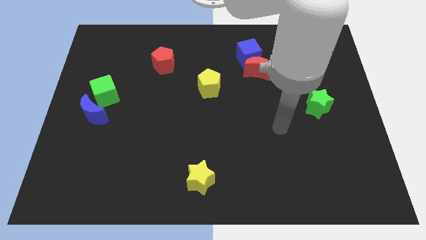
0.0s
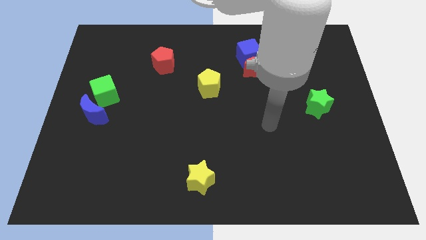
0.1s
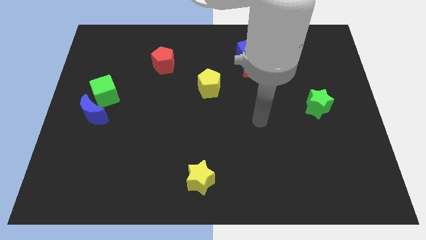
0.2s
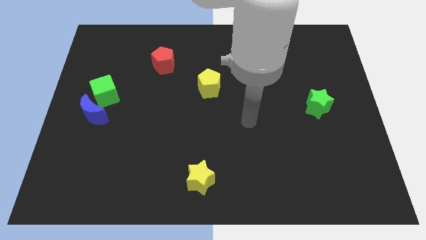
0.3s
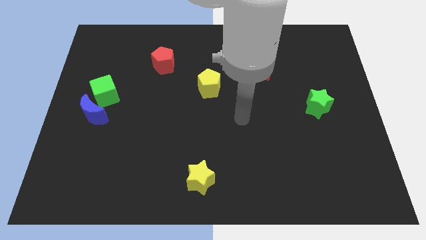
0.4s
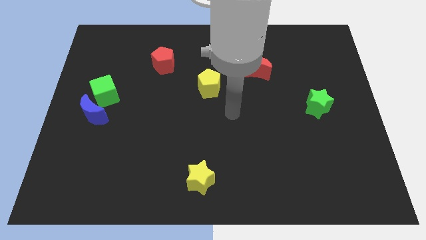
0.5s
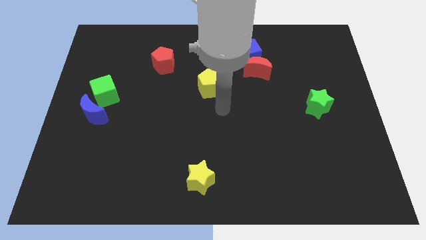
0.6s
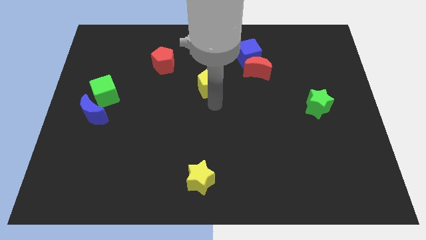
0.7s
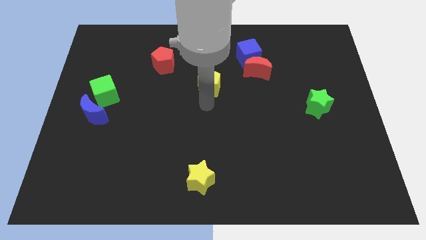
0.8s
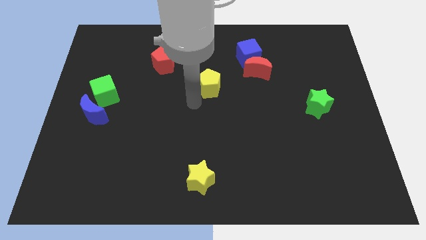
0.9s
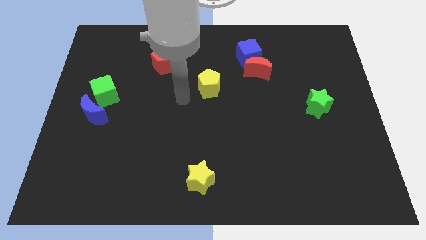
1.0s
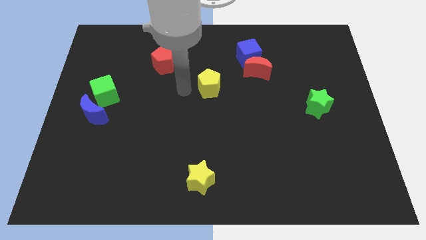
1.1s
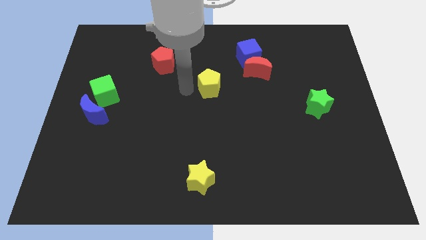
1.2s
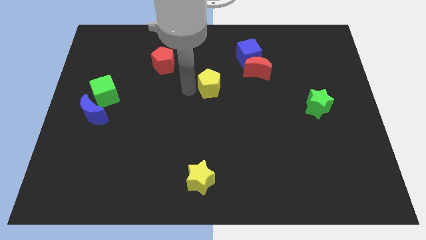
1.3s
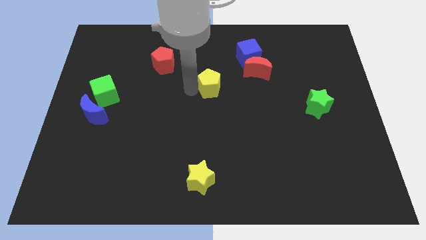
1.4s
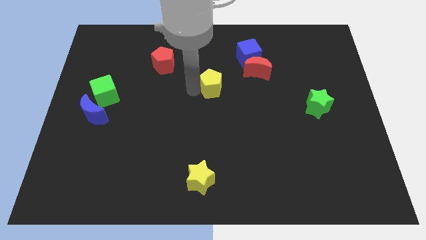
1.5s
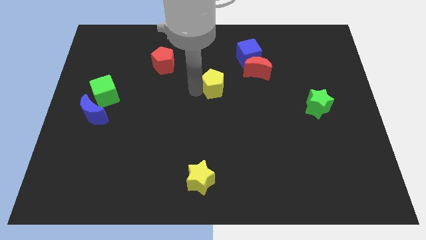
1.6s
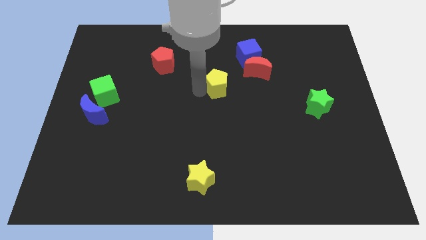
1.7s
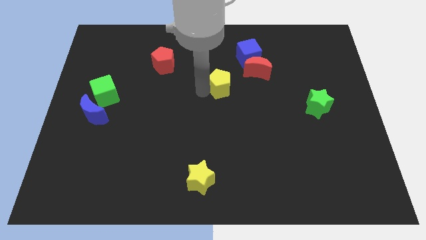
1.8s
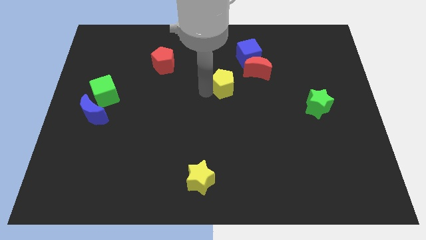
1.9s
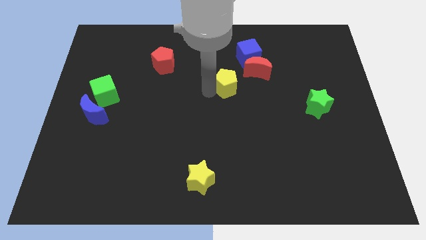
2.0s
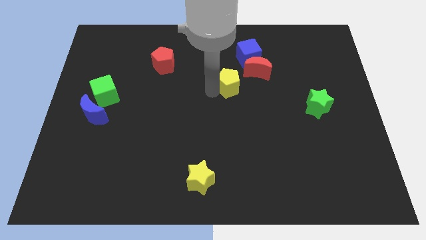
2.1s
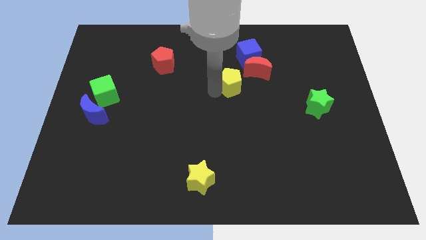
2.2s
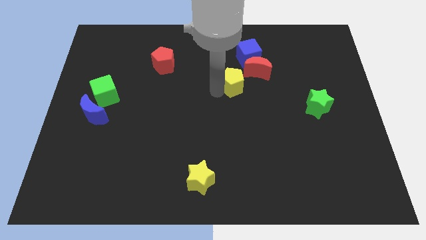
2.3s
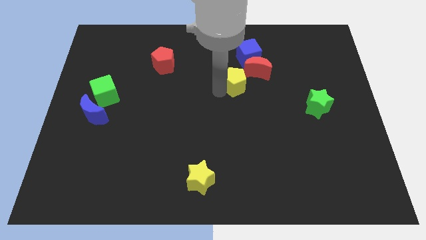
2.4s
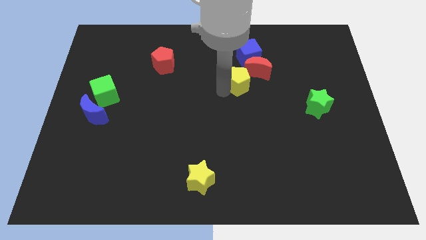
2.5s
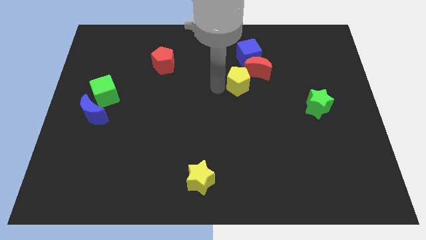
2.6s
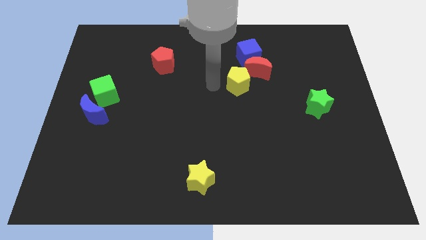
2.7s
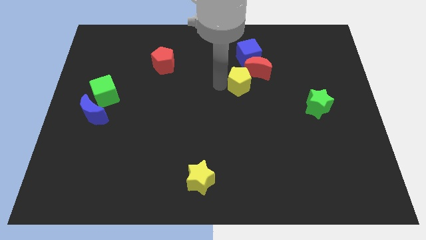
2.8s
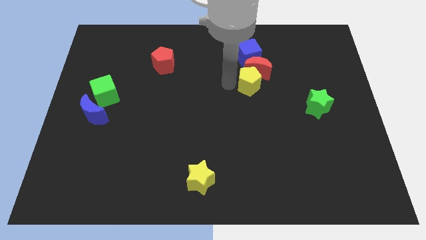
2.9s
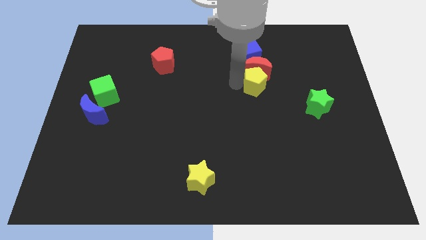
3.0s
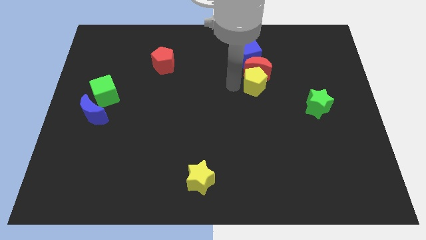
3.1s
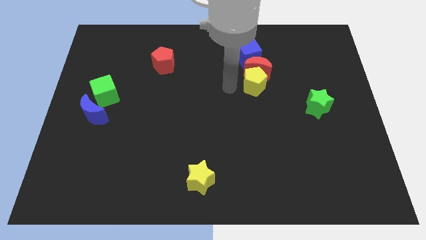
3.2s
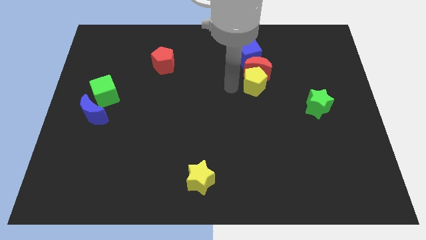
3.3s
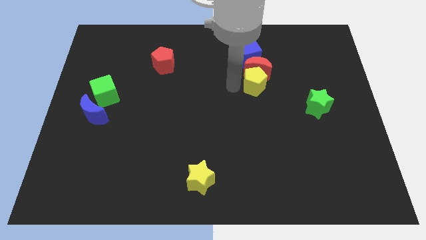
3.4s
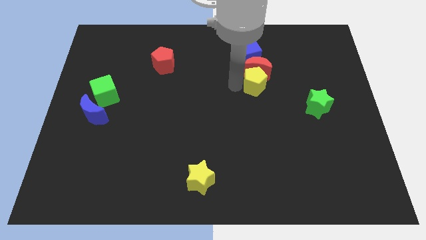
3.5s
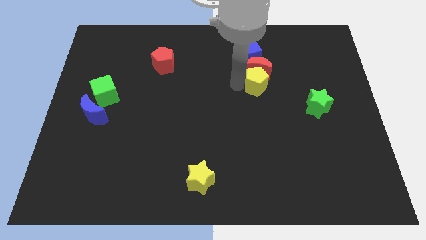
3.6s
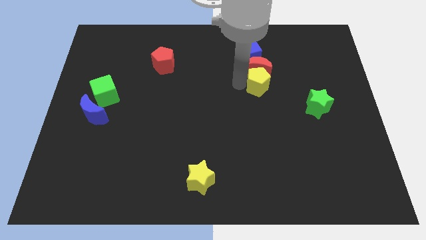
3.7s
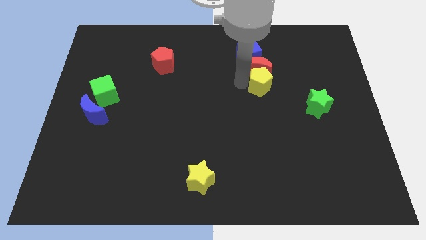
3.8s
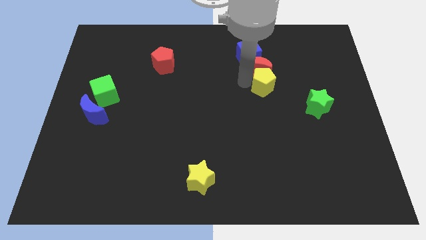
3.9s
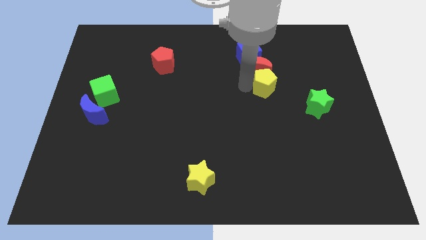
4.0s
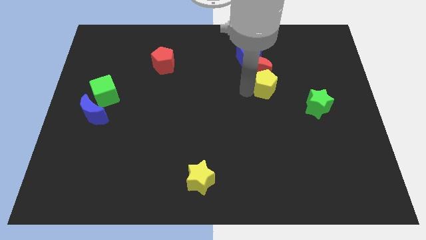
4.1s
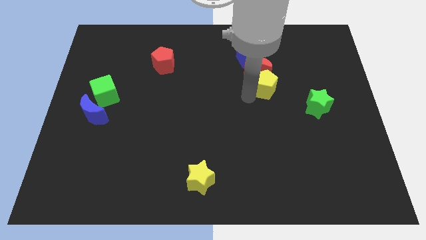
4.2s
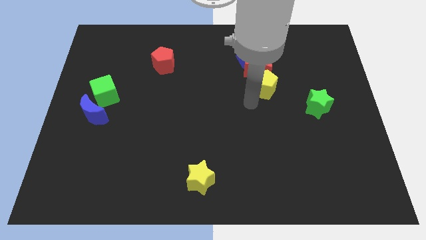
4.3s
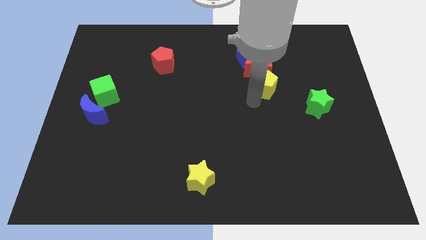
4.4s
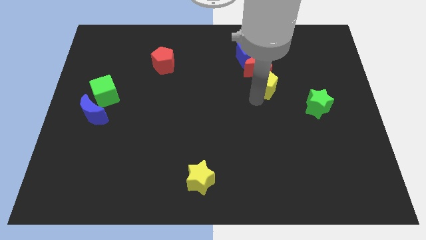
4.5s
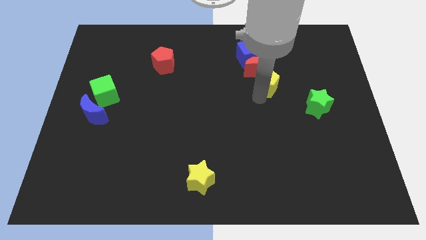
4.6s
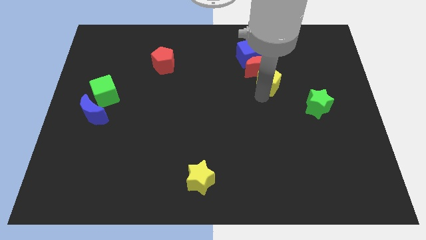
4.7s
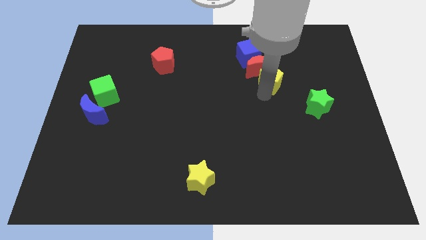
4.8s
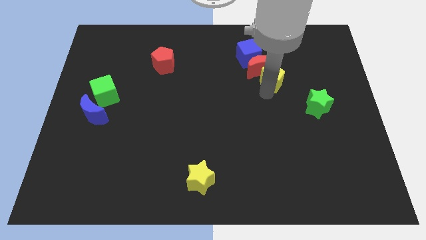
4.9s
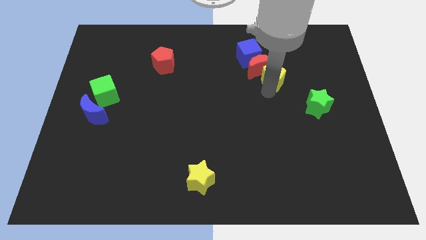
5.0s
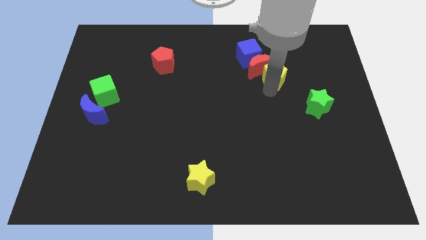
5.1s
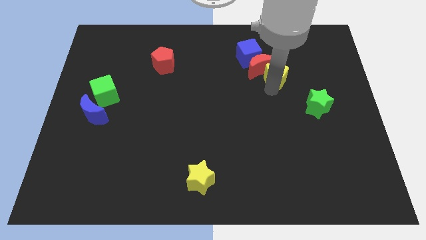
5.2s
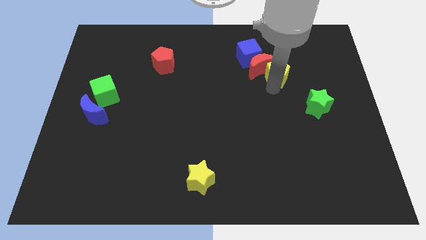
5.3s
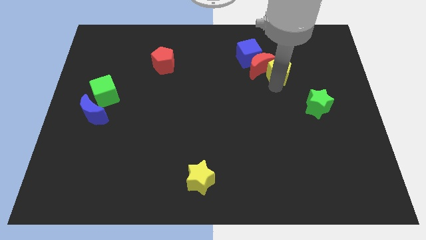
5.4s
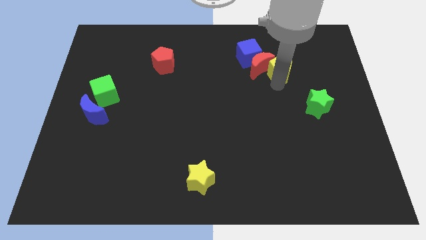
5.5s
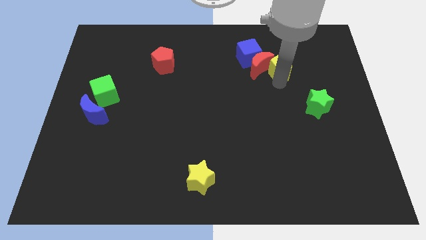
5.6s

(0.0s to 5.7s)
put the yellow pentagon to the right side of the blue cube

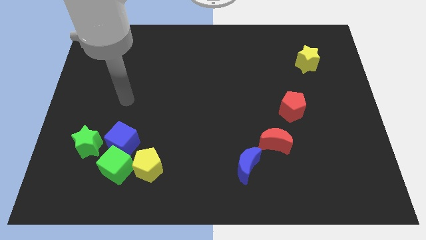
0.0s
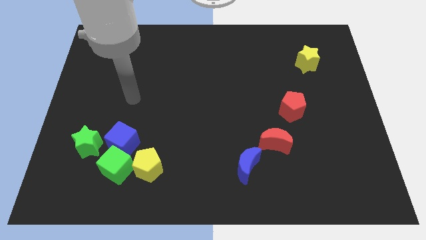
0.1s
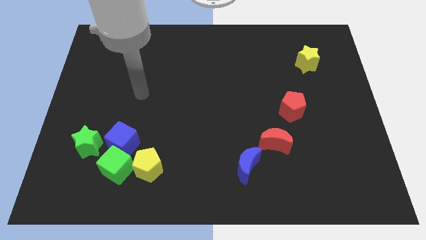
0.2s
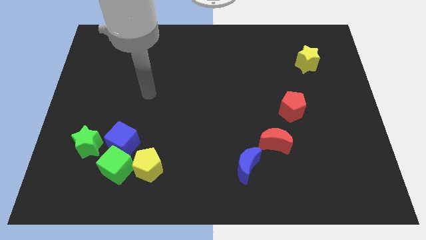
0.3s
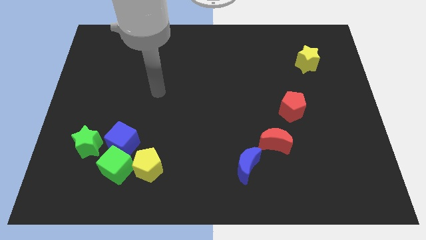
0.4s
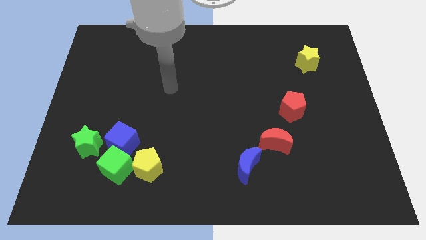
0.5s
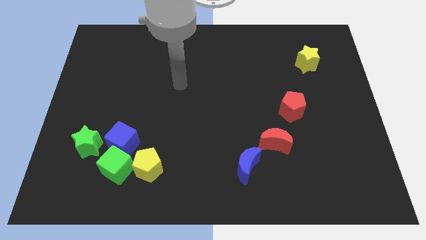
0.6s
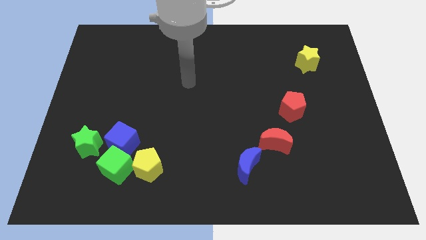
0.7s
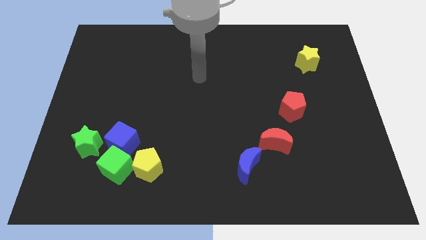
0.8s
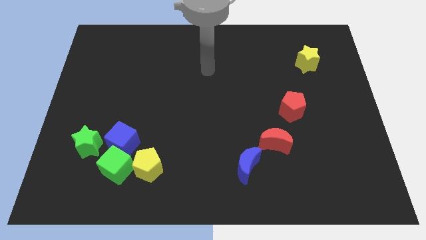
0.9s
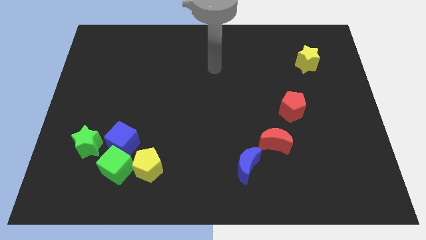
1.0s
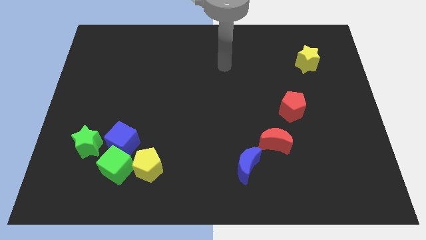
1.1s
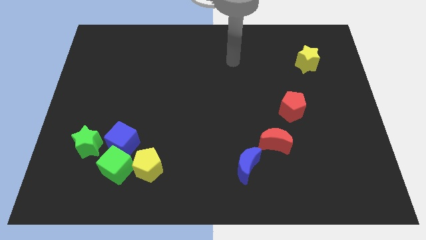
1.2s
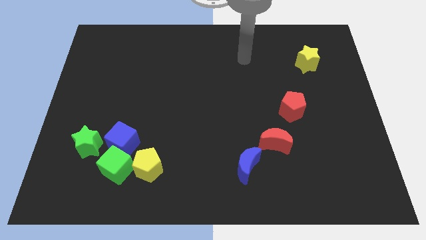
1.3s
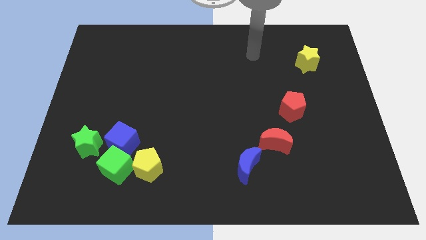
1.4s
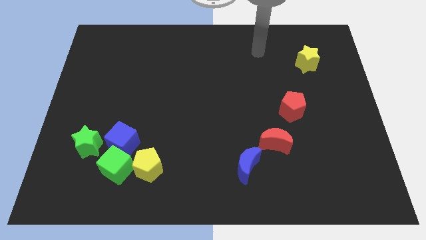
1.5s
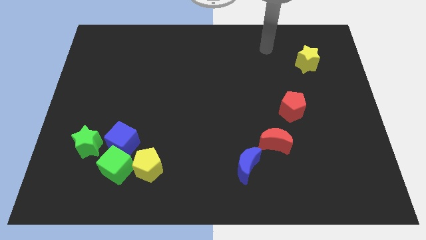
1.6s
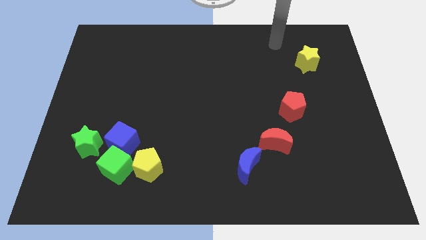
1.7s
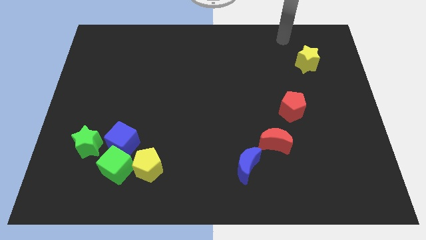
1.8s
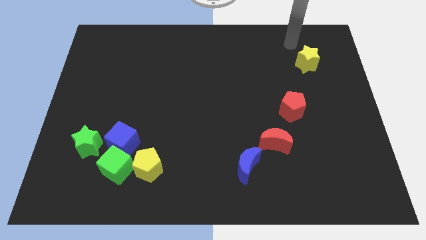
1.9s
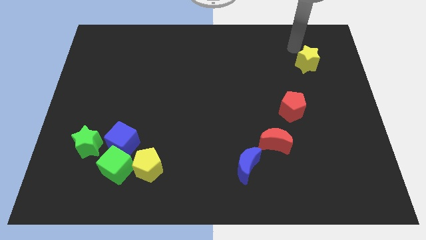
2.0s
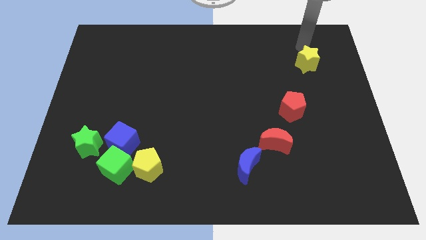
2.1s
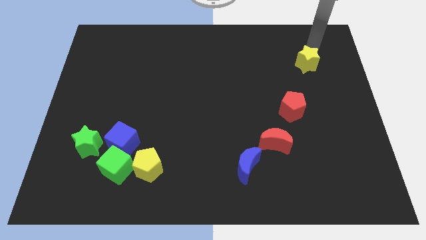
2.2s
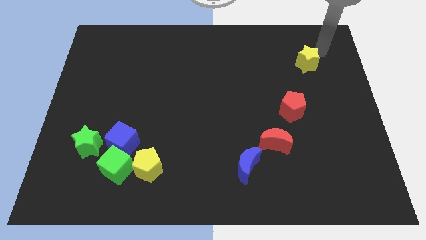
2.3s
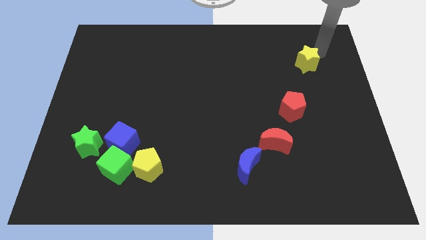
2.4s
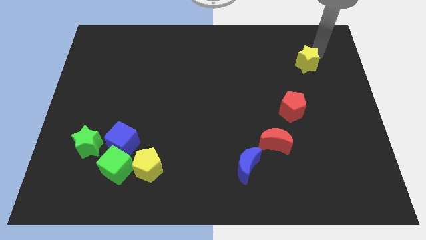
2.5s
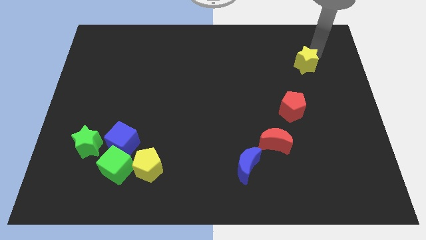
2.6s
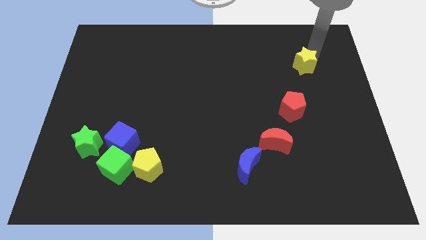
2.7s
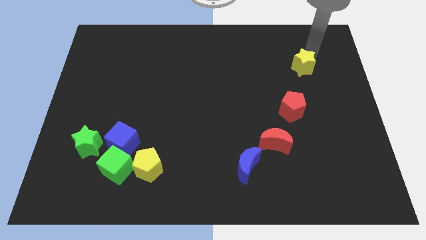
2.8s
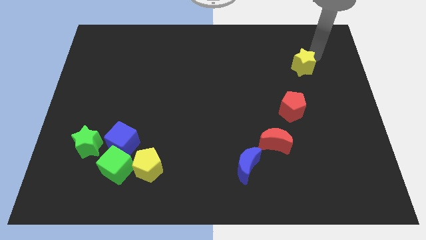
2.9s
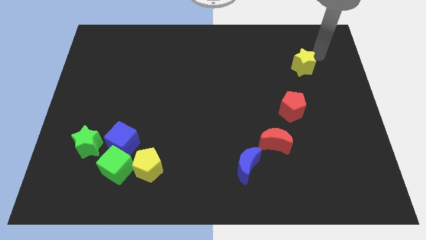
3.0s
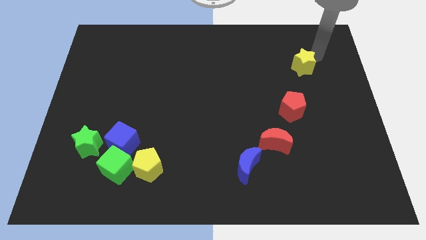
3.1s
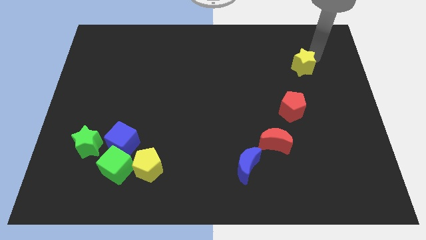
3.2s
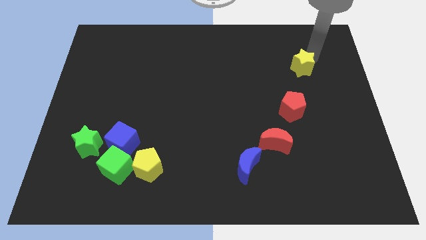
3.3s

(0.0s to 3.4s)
slide the yellow star above the red pentagon
